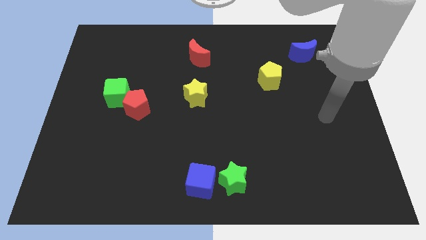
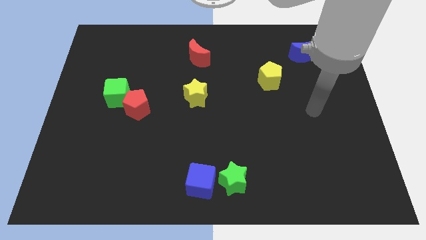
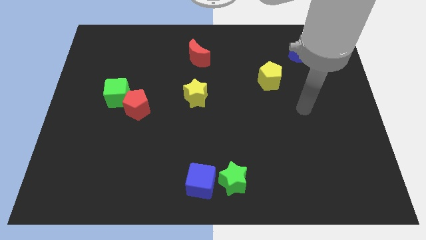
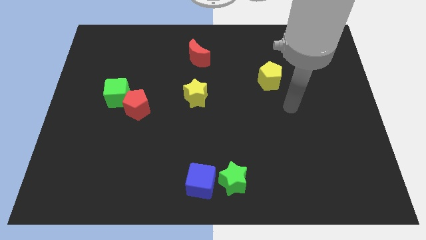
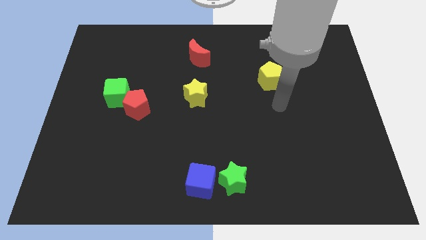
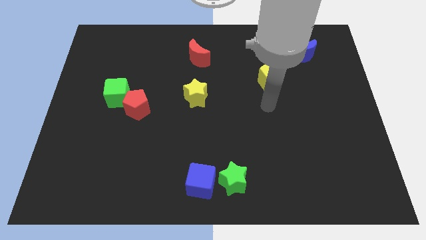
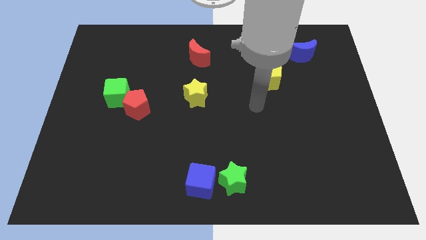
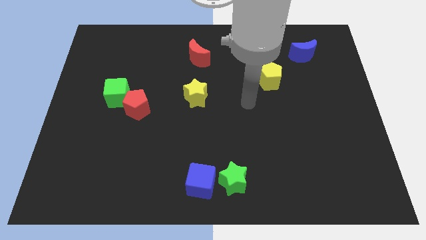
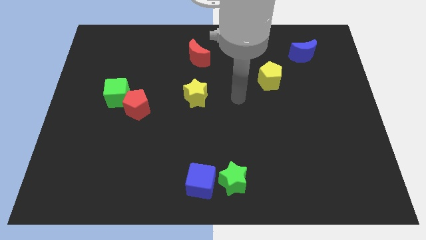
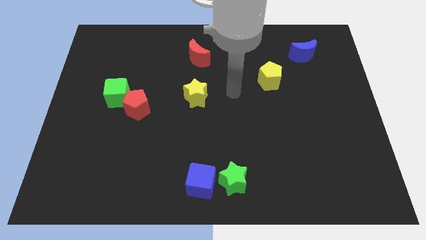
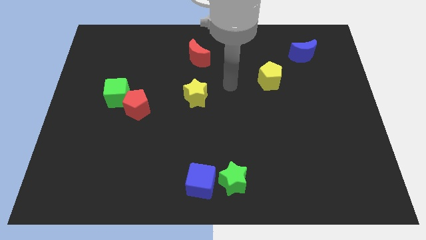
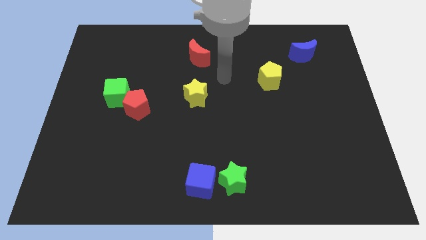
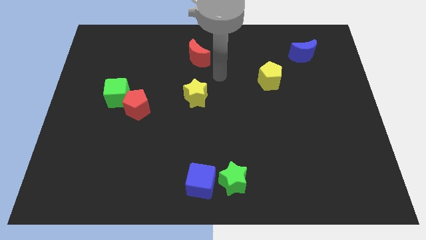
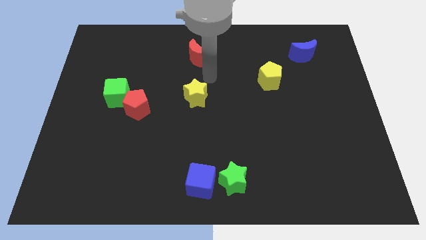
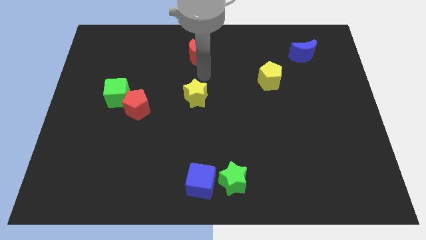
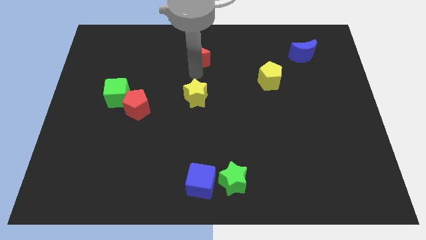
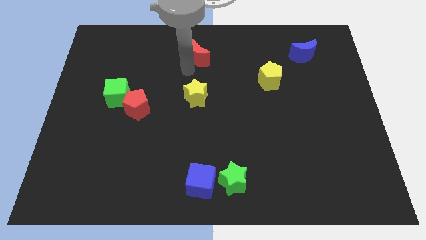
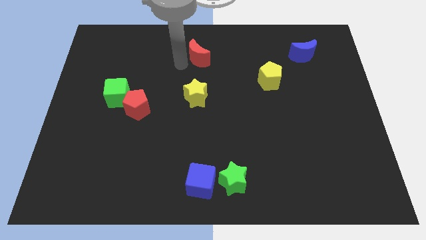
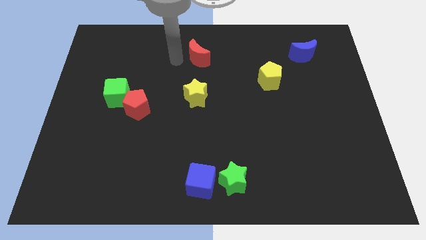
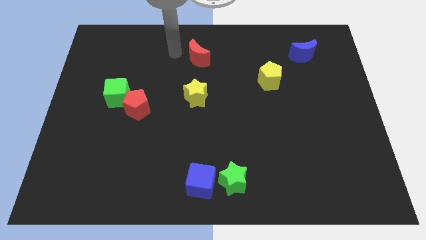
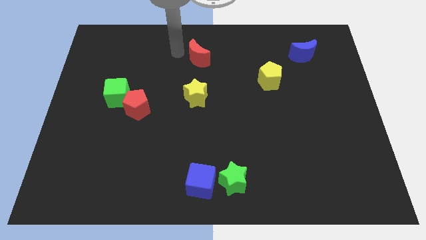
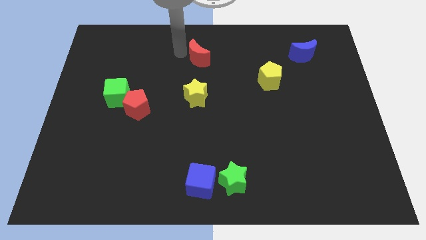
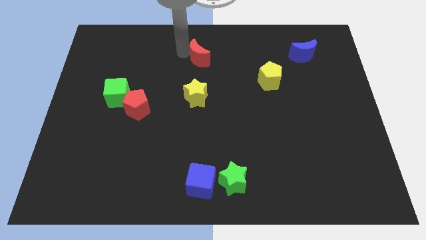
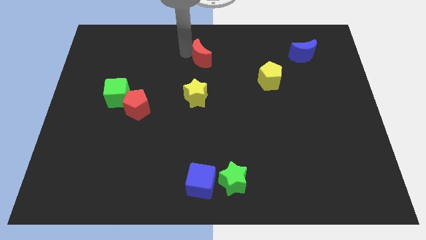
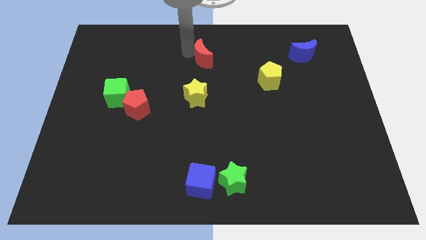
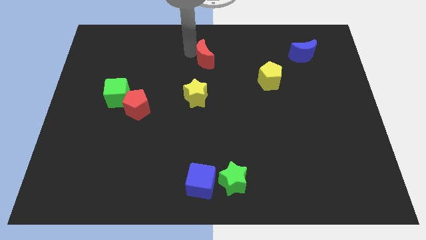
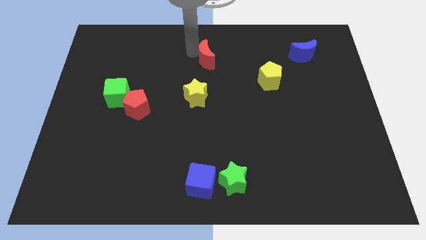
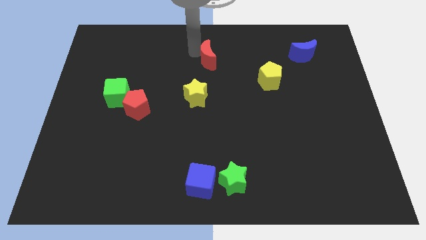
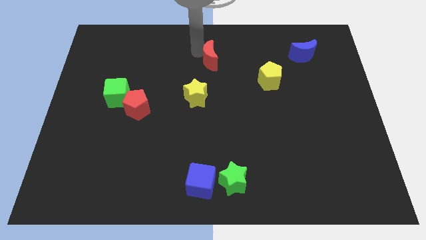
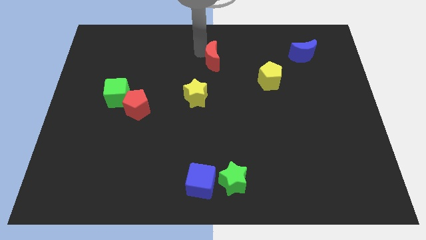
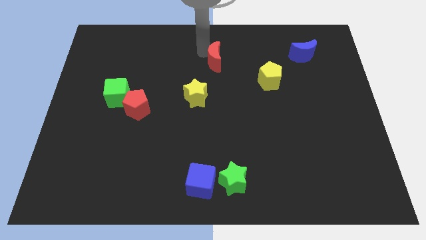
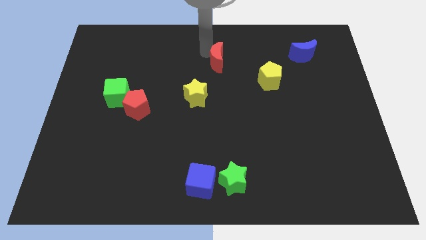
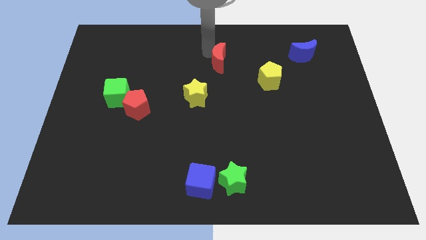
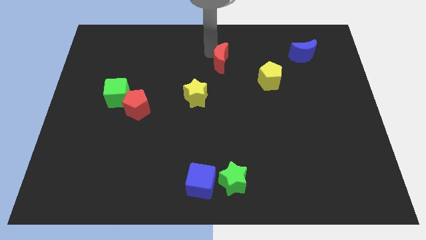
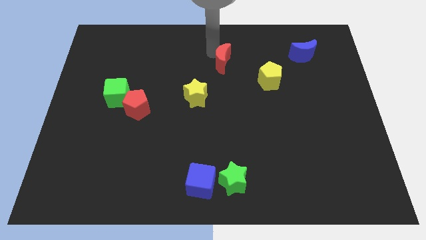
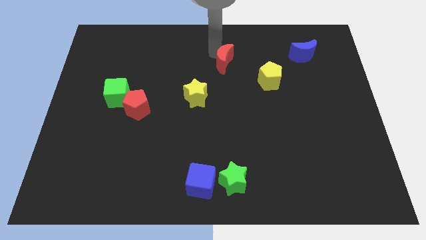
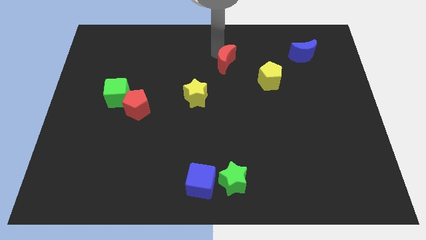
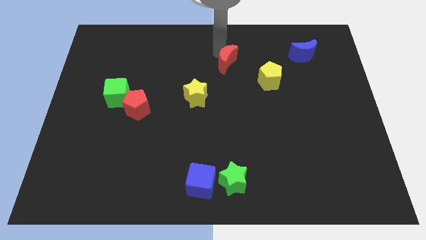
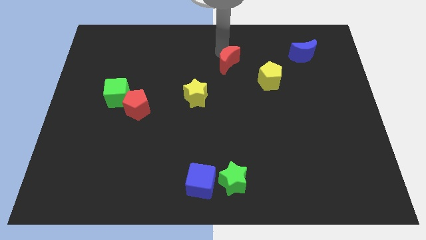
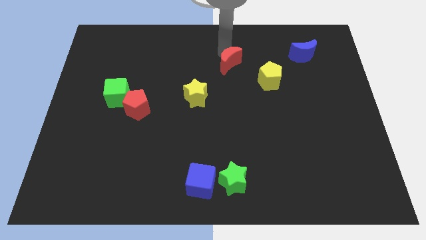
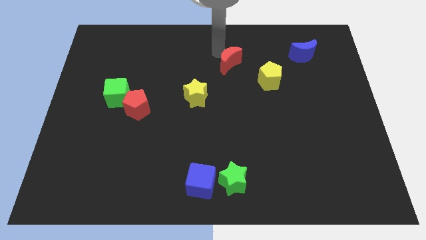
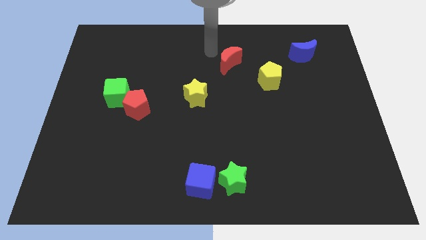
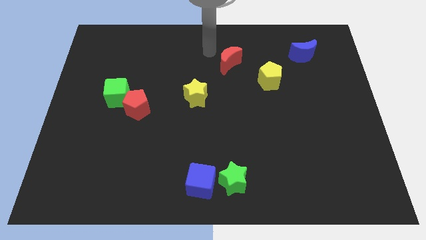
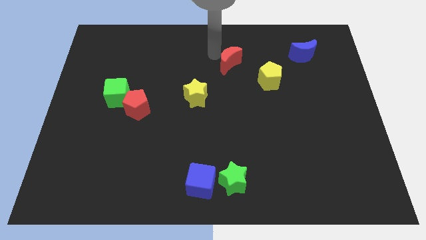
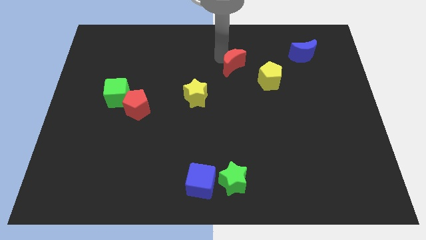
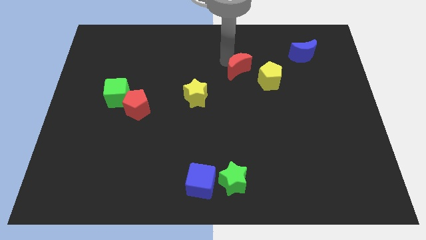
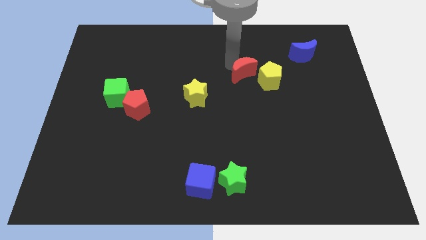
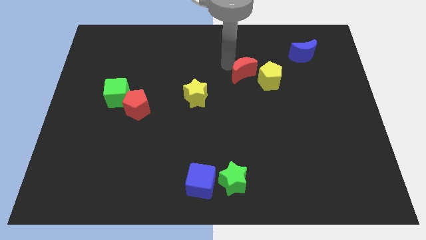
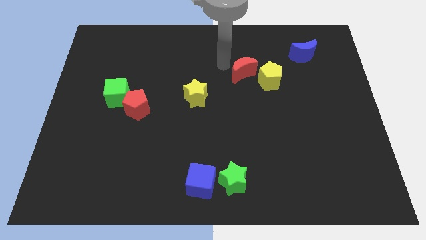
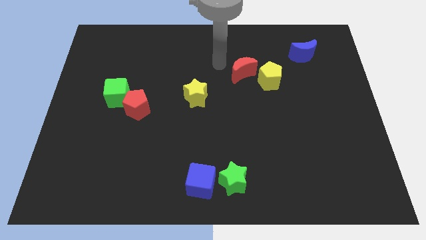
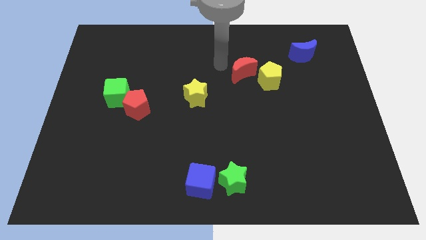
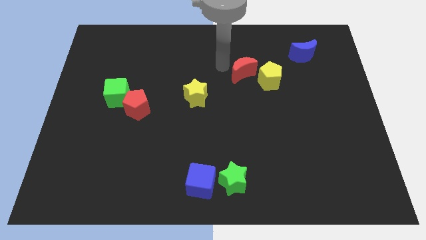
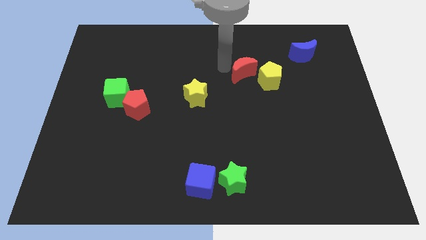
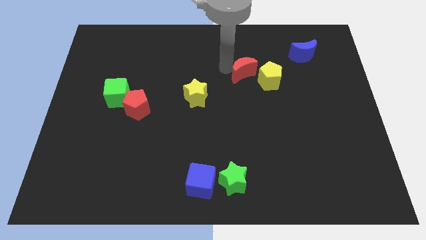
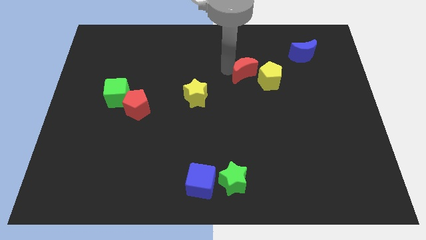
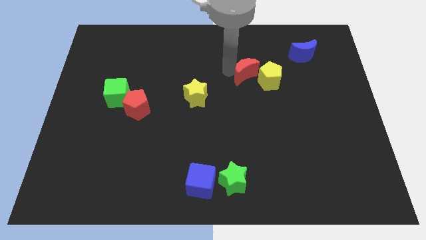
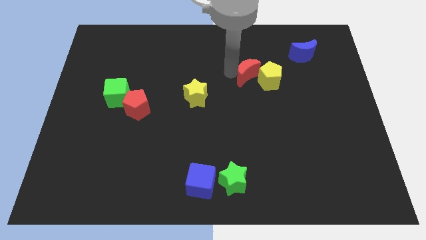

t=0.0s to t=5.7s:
push the red moon to the yellow pentagon
